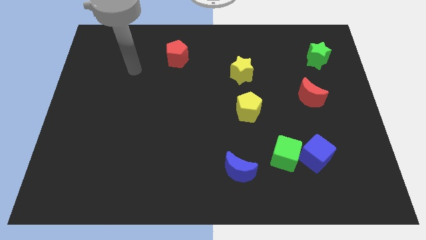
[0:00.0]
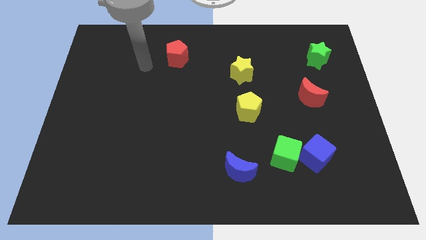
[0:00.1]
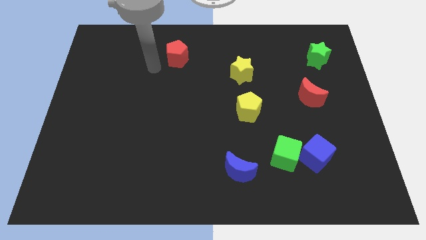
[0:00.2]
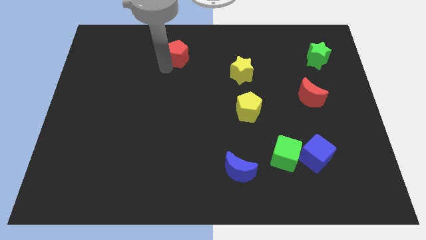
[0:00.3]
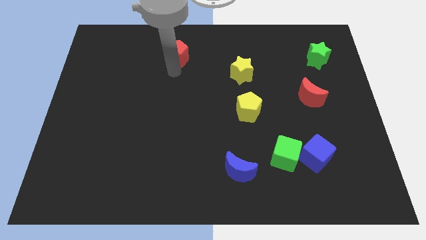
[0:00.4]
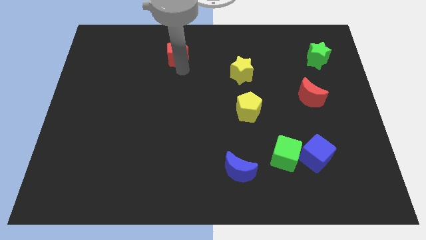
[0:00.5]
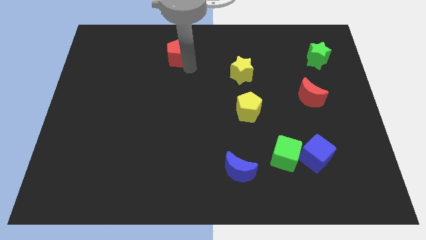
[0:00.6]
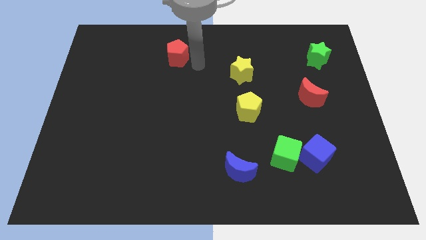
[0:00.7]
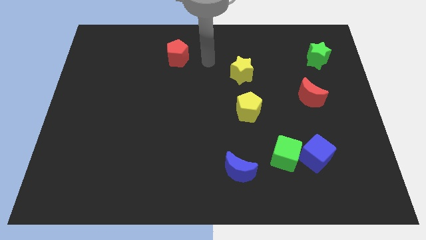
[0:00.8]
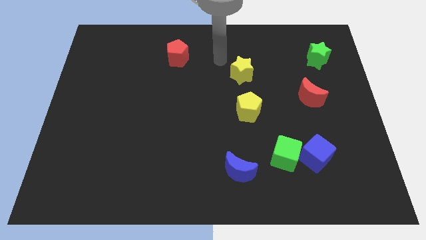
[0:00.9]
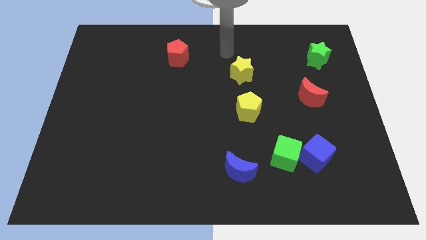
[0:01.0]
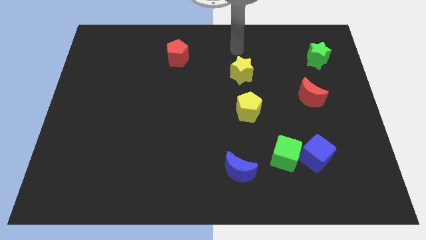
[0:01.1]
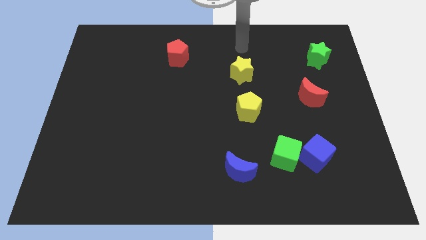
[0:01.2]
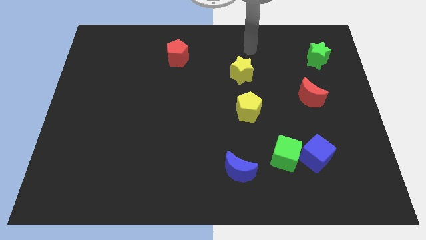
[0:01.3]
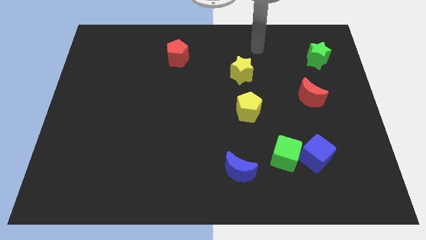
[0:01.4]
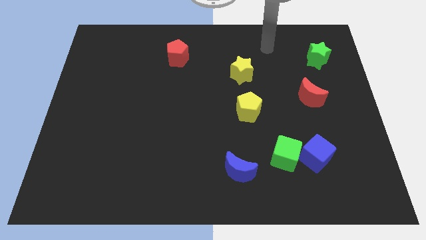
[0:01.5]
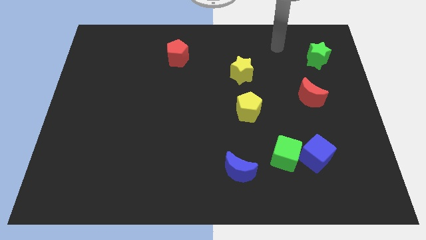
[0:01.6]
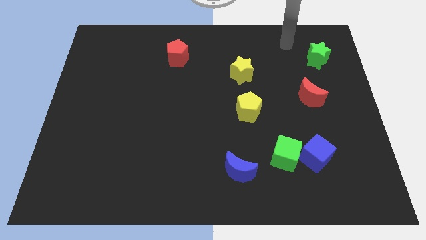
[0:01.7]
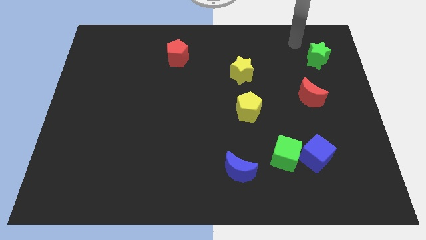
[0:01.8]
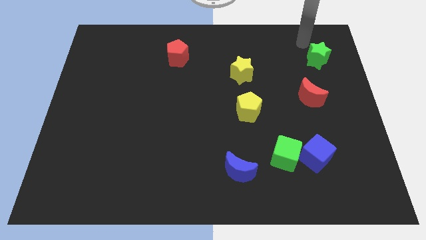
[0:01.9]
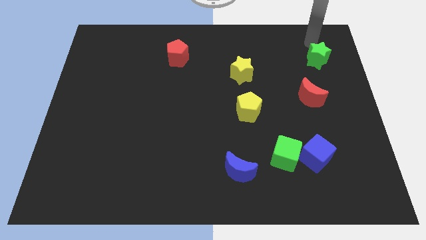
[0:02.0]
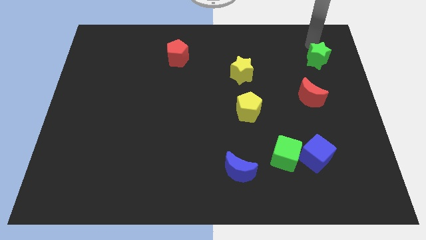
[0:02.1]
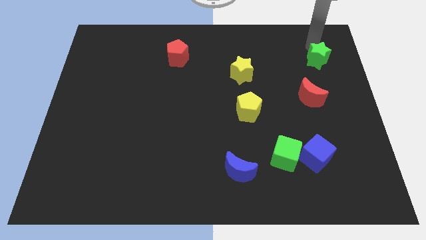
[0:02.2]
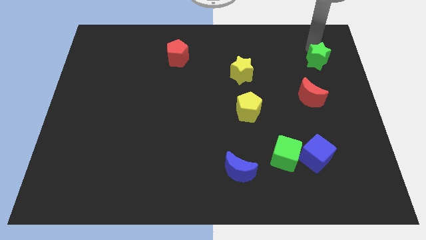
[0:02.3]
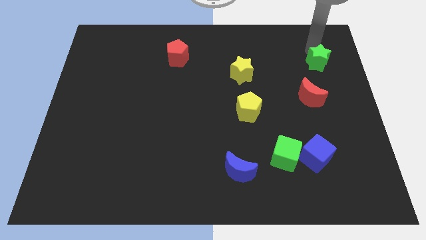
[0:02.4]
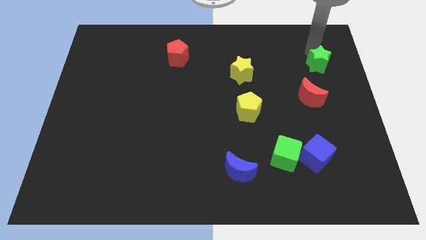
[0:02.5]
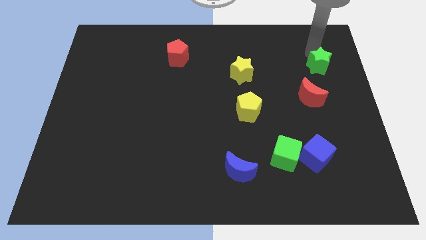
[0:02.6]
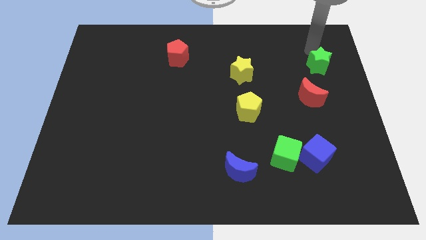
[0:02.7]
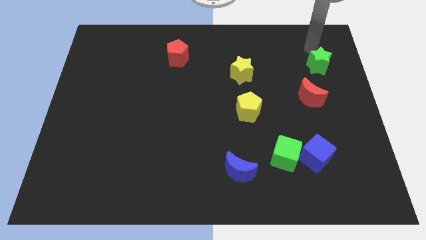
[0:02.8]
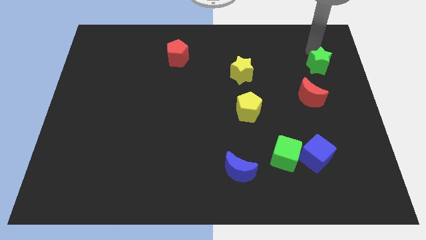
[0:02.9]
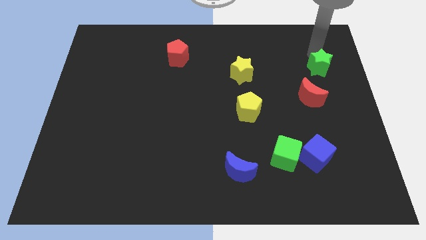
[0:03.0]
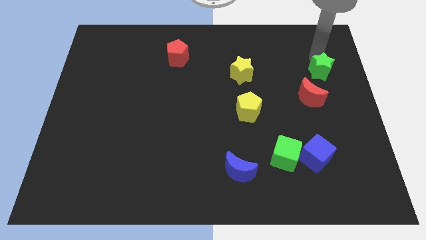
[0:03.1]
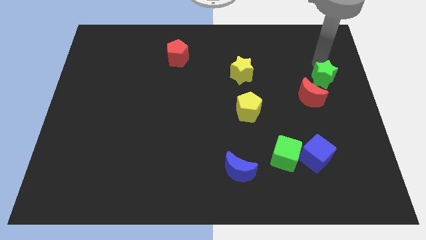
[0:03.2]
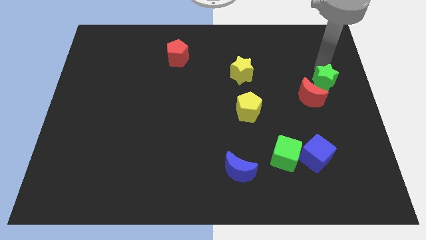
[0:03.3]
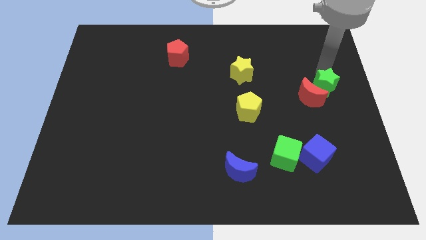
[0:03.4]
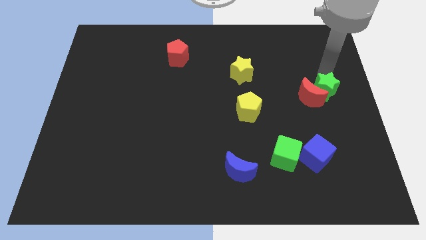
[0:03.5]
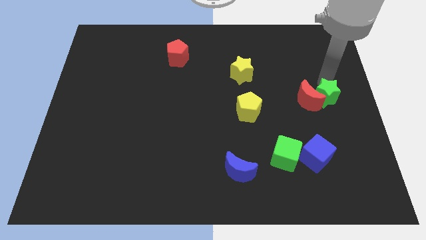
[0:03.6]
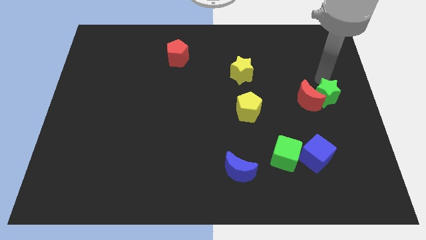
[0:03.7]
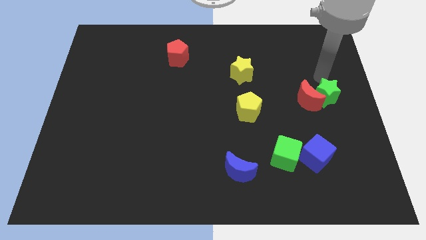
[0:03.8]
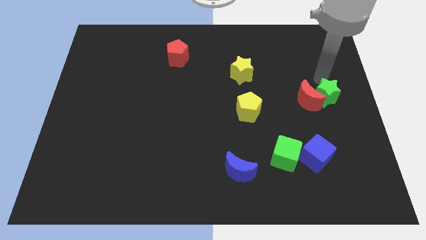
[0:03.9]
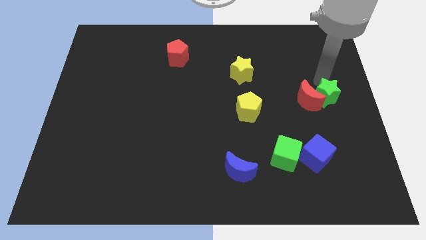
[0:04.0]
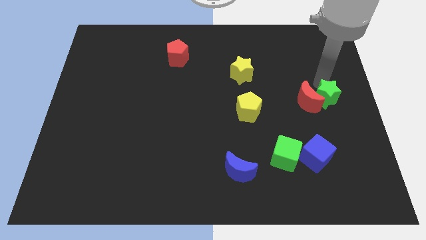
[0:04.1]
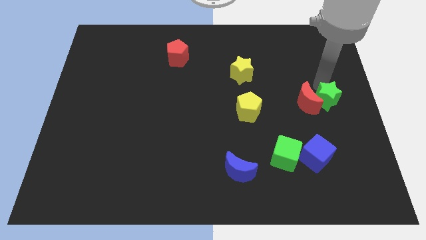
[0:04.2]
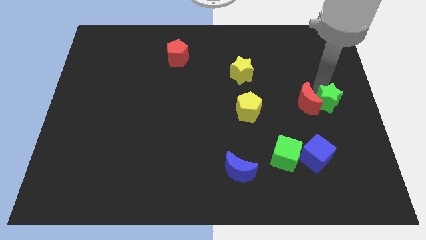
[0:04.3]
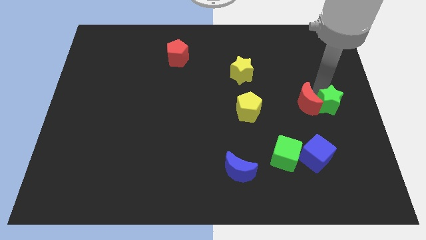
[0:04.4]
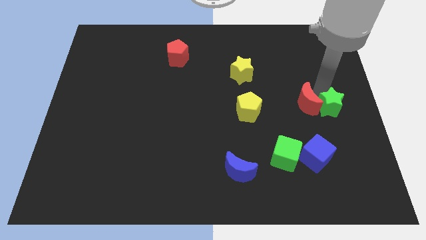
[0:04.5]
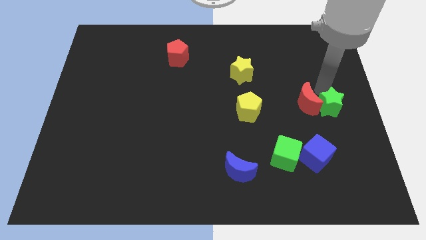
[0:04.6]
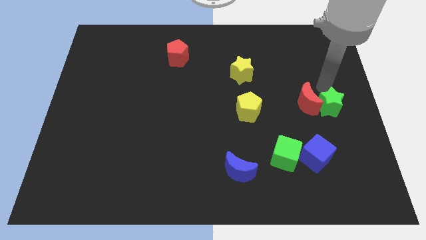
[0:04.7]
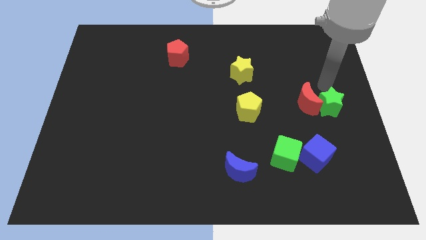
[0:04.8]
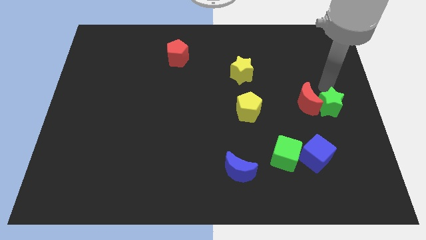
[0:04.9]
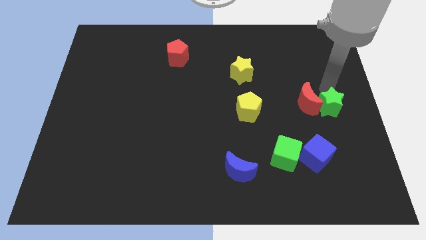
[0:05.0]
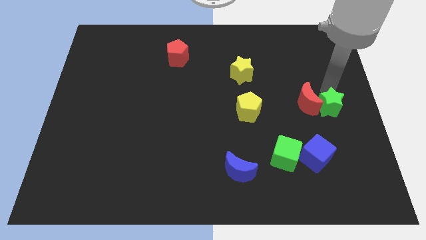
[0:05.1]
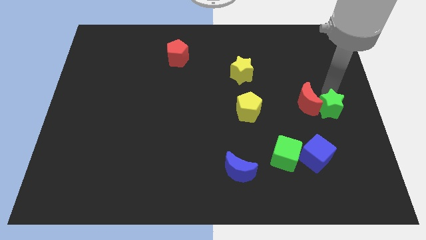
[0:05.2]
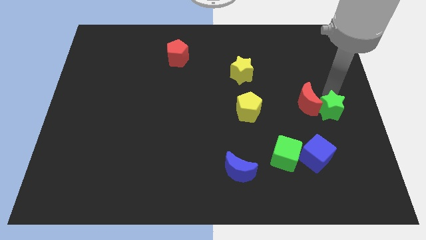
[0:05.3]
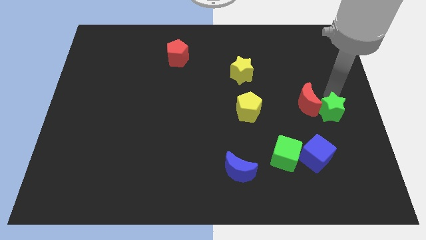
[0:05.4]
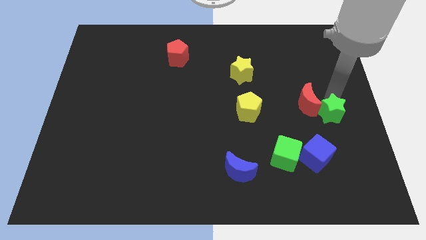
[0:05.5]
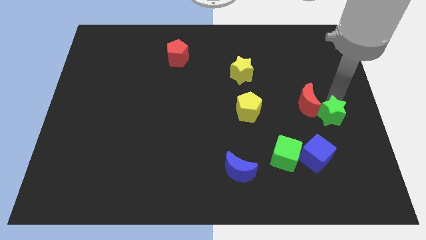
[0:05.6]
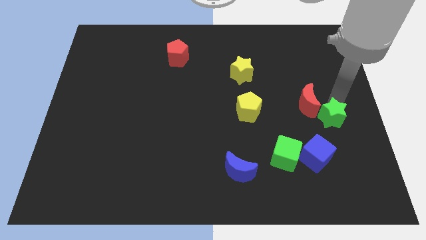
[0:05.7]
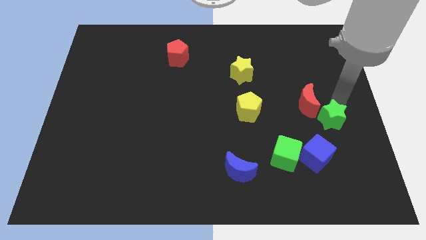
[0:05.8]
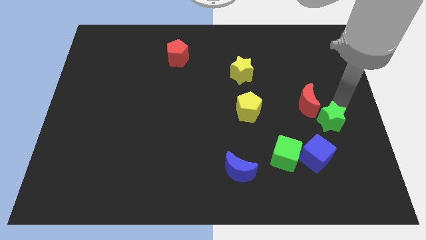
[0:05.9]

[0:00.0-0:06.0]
push the green star downwards

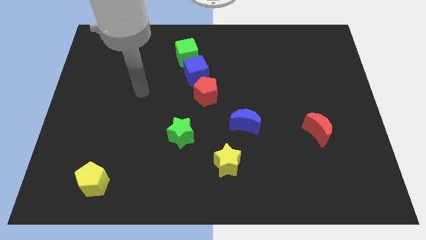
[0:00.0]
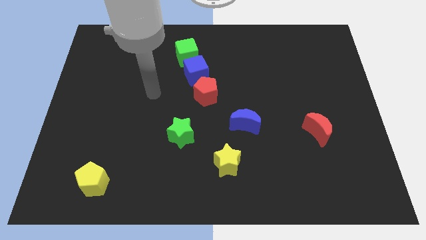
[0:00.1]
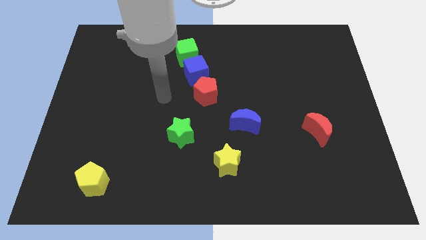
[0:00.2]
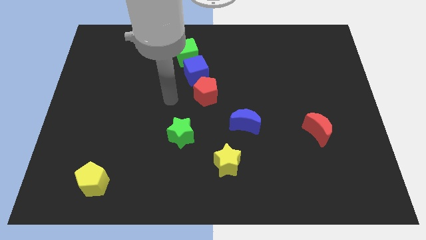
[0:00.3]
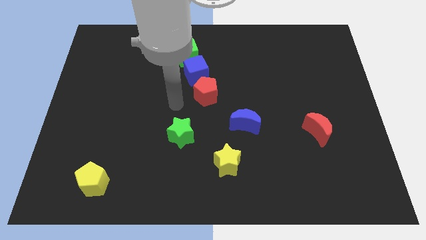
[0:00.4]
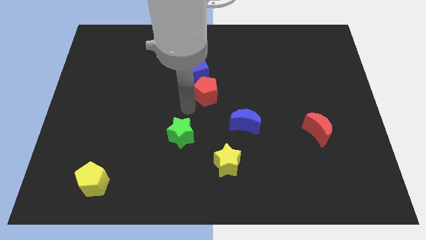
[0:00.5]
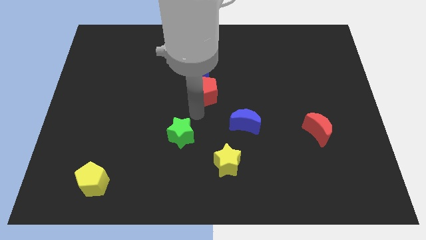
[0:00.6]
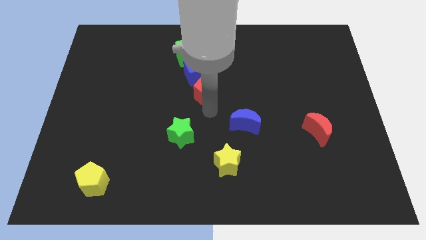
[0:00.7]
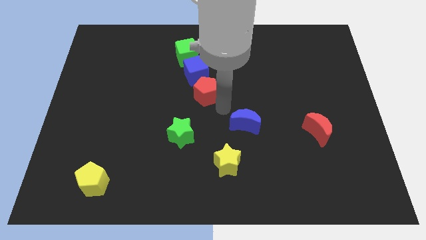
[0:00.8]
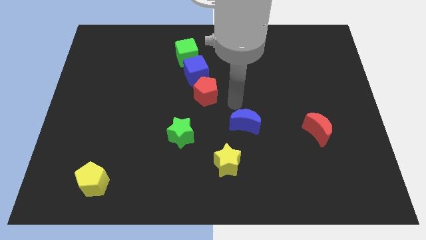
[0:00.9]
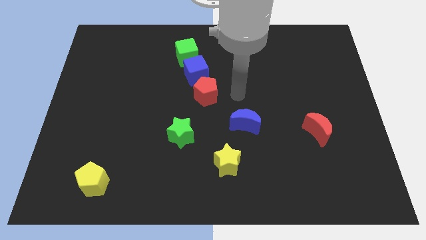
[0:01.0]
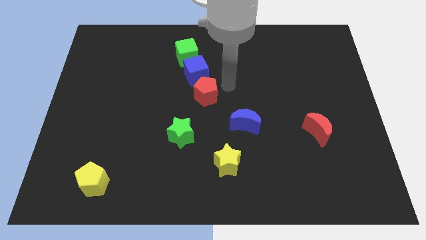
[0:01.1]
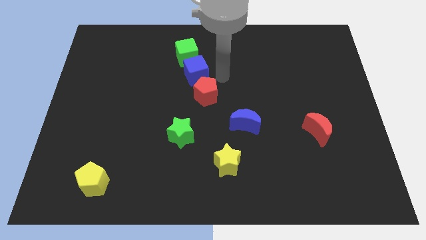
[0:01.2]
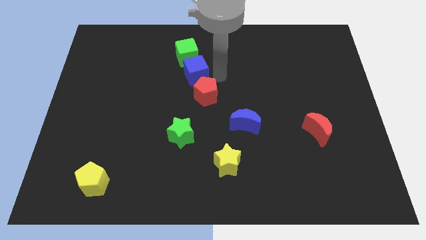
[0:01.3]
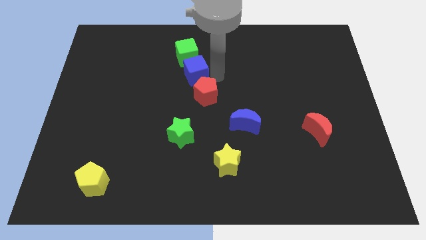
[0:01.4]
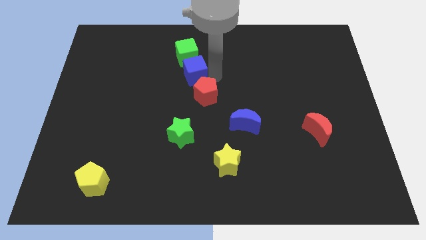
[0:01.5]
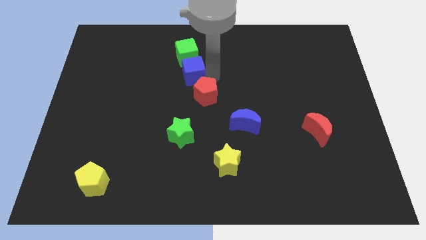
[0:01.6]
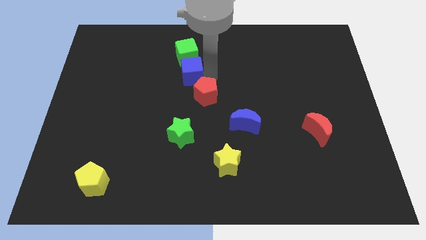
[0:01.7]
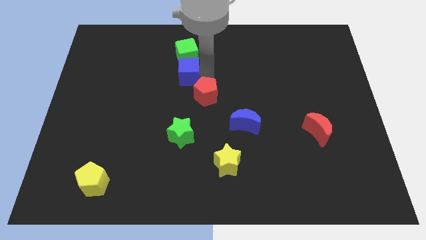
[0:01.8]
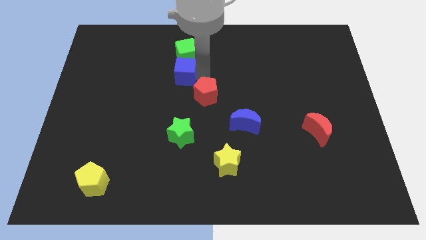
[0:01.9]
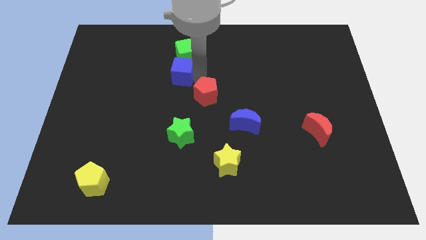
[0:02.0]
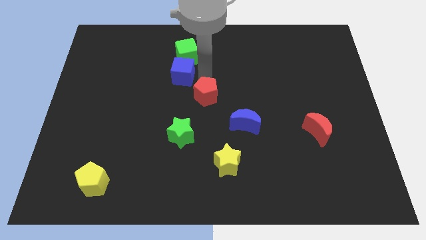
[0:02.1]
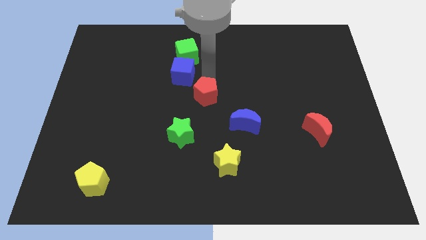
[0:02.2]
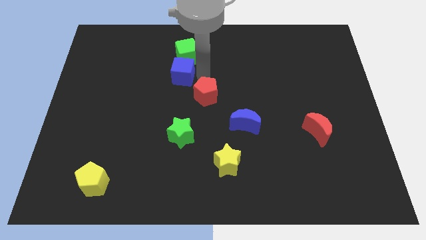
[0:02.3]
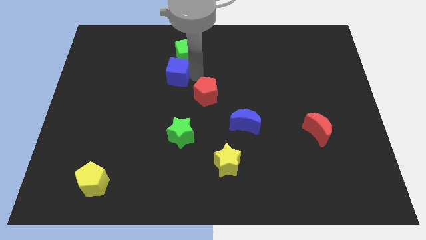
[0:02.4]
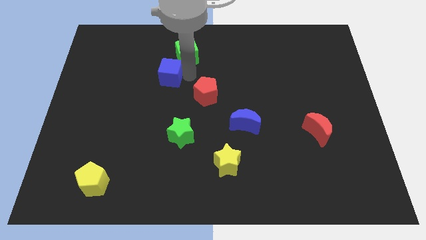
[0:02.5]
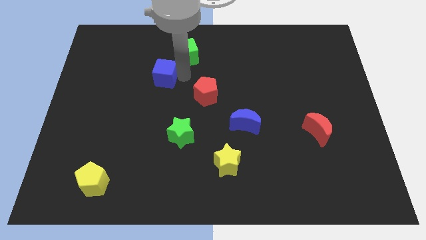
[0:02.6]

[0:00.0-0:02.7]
move the blue cube a bit left
